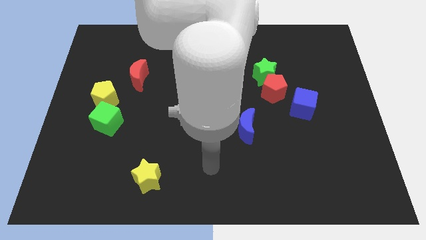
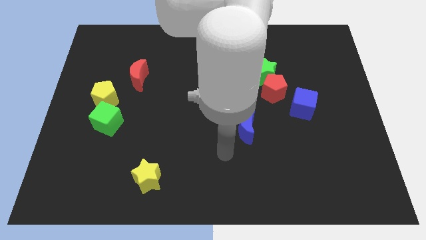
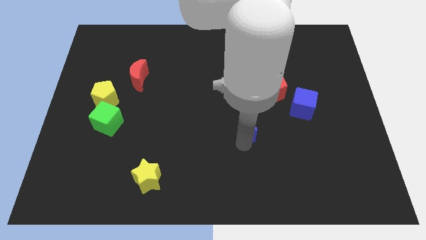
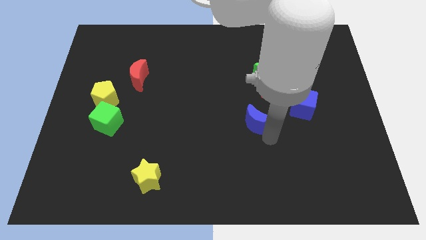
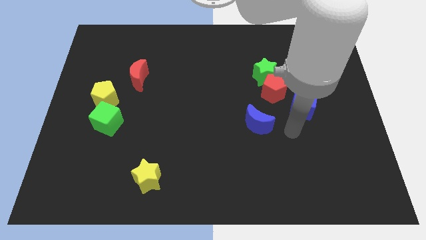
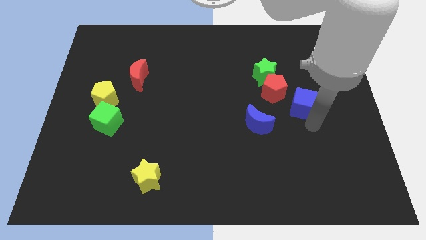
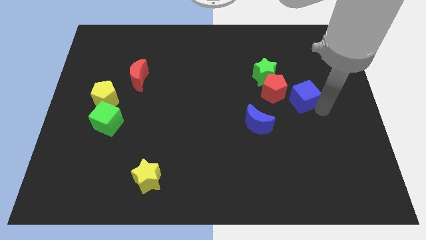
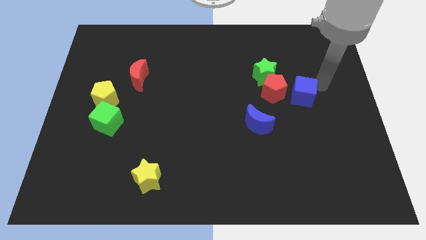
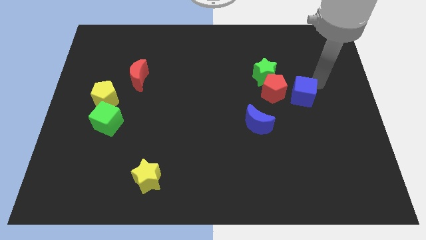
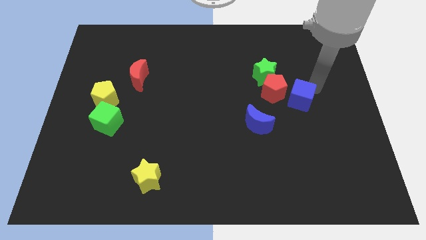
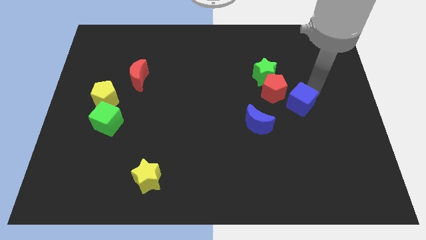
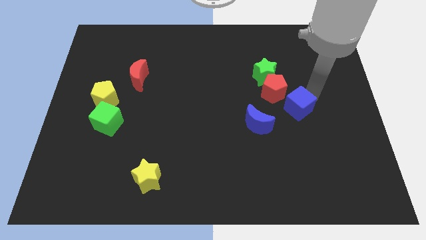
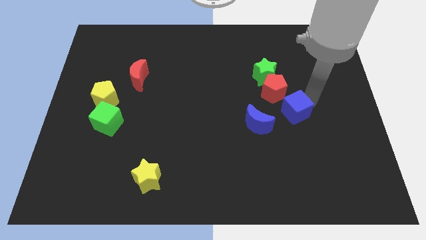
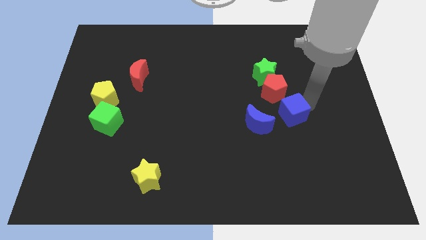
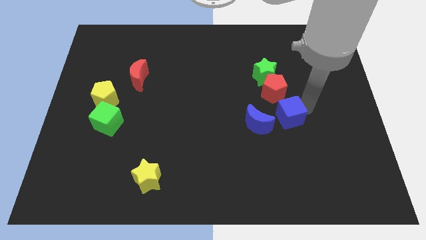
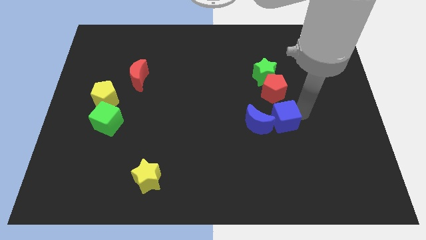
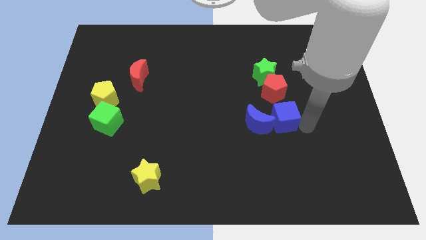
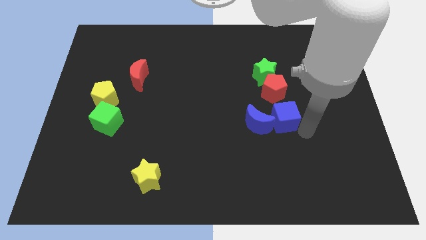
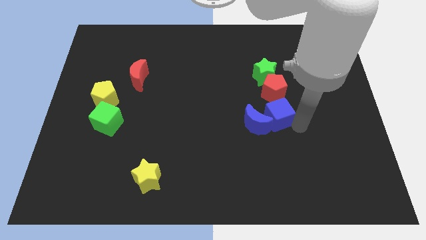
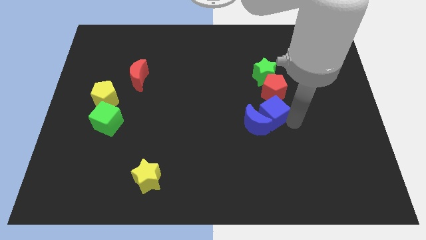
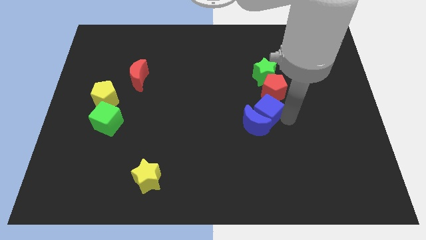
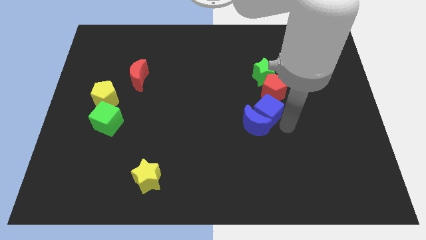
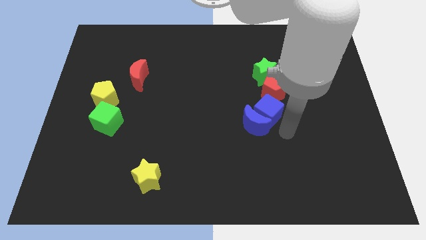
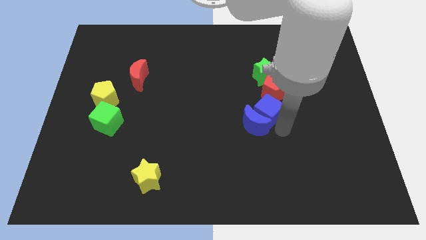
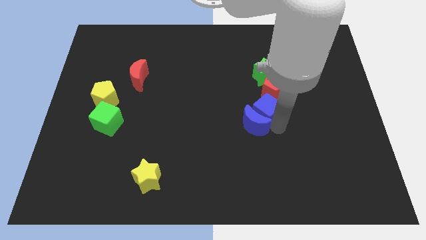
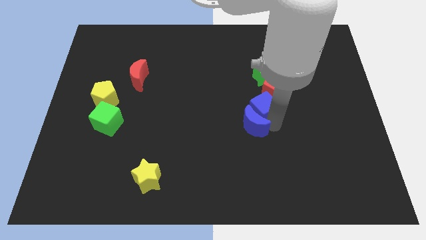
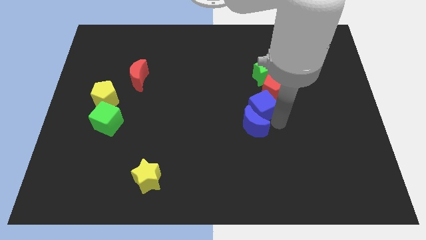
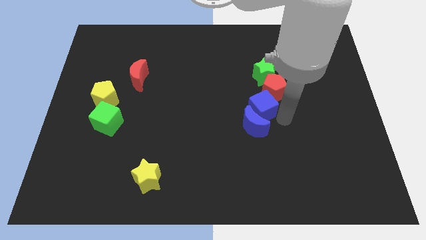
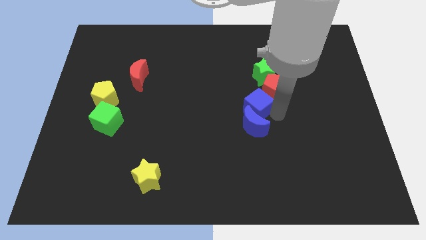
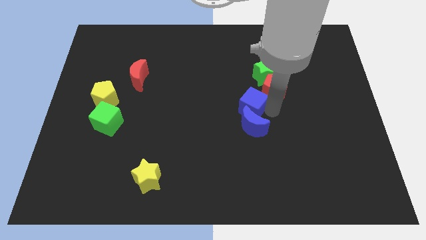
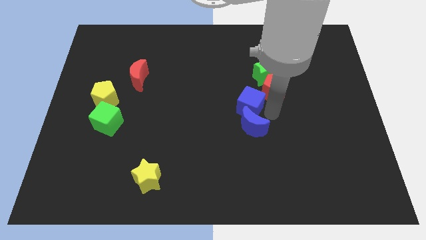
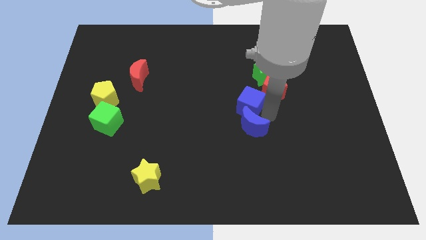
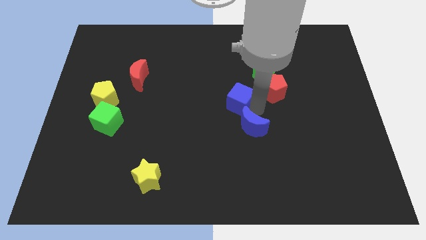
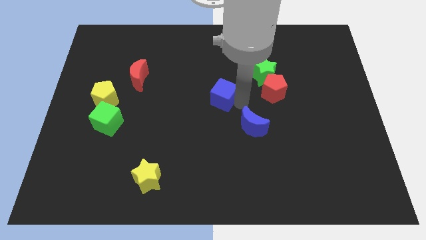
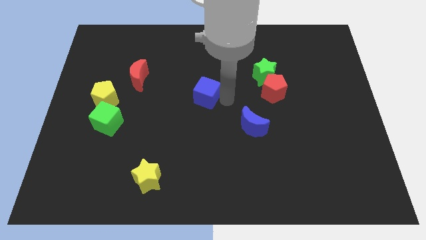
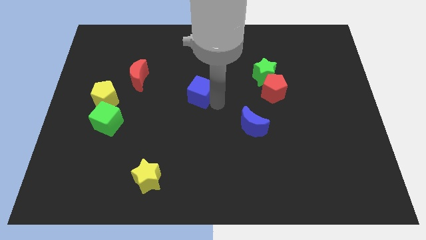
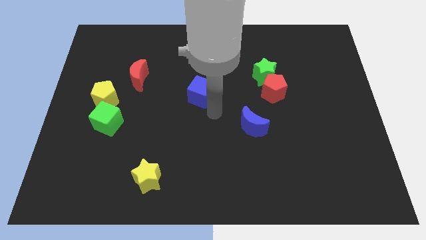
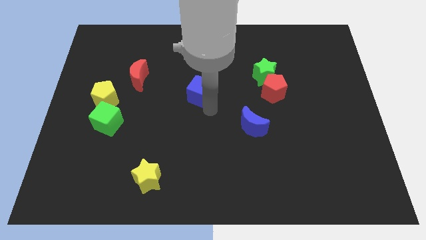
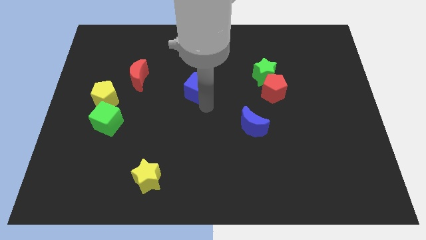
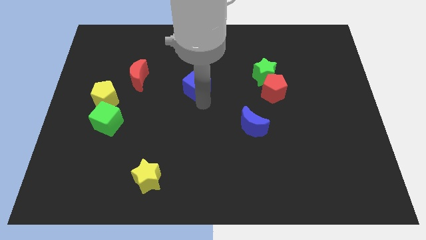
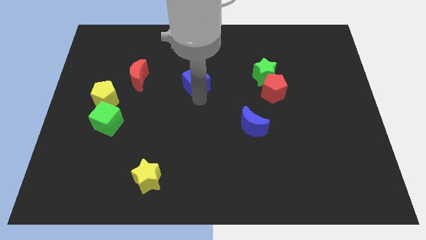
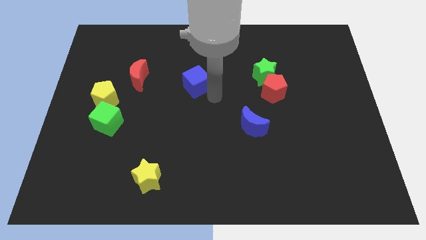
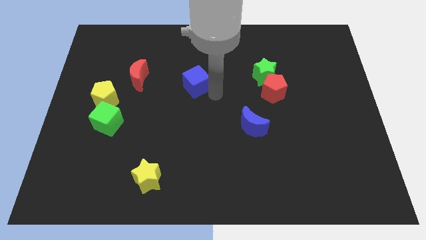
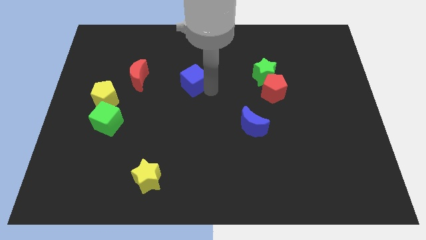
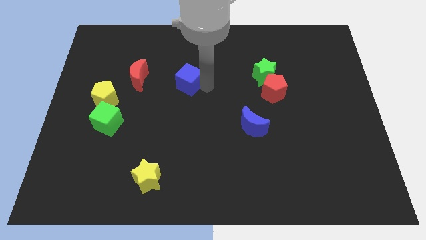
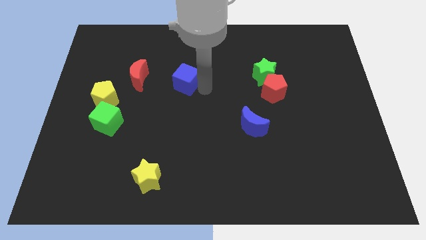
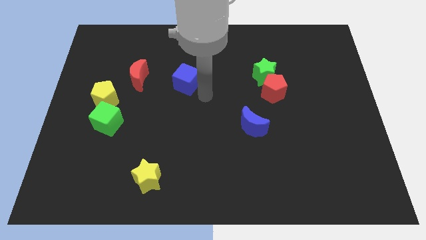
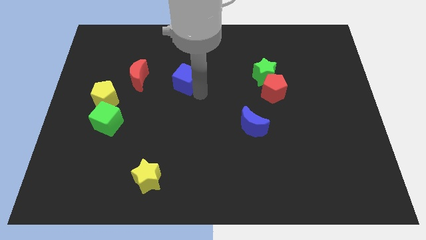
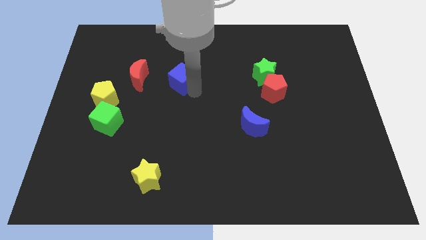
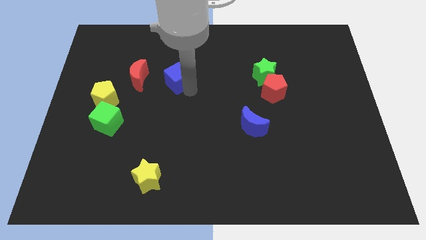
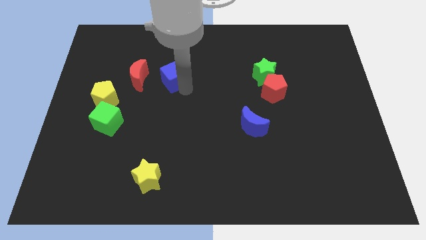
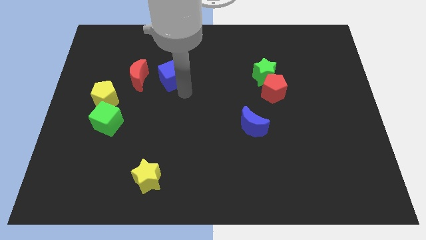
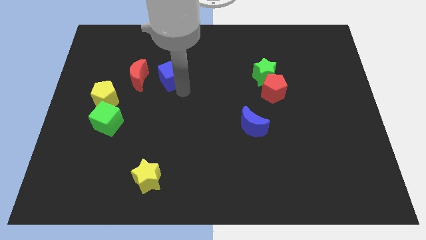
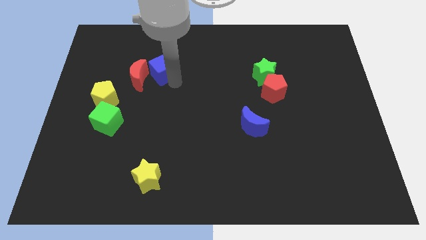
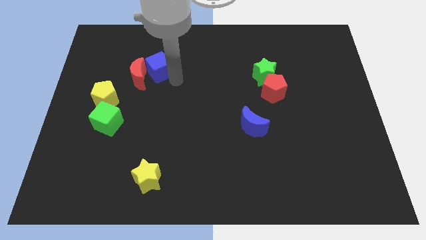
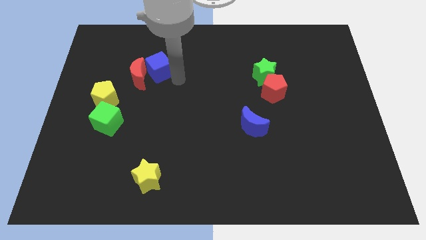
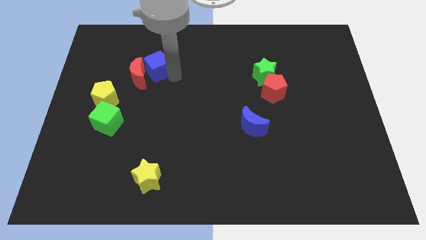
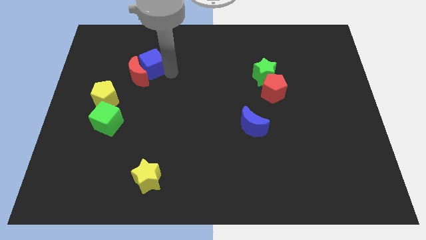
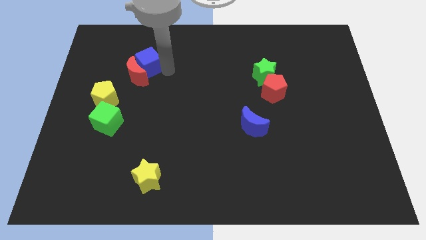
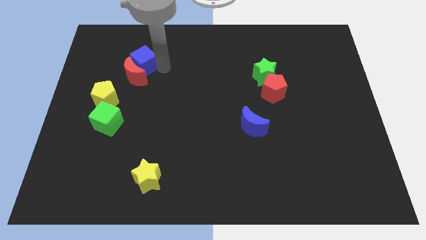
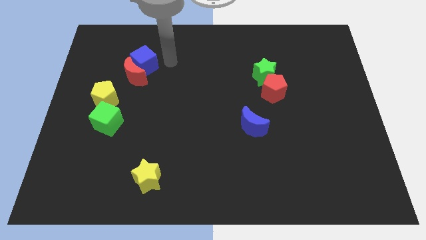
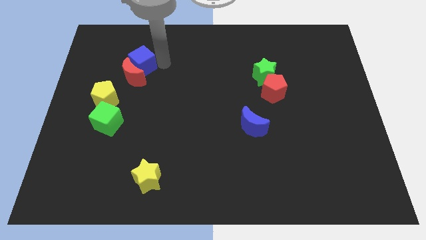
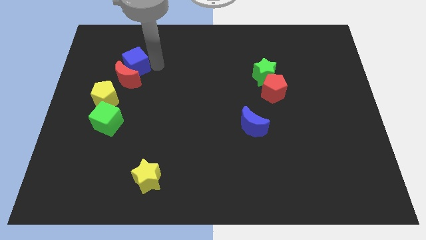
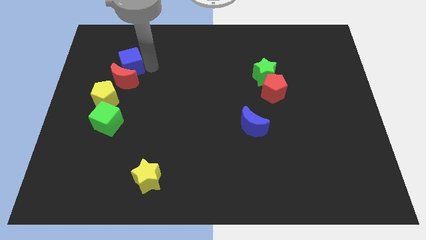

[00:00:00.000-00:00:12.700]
slide the blue cube to the top side of the yellow pentagon

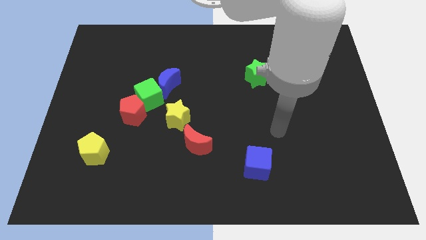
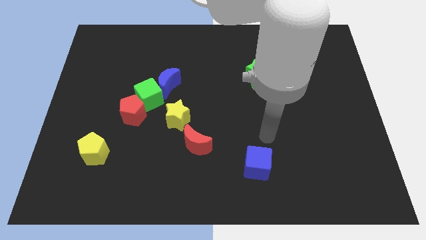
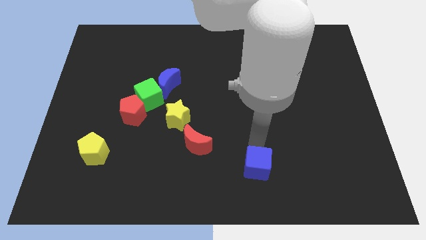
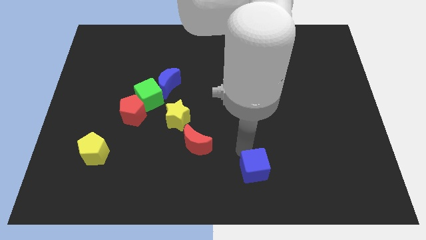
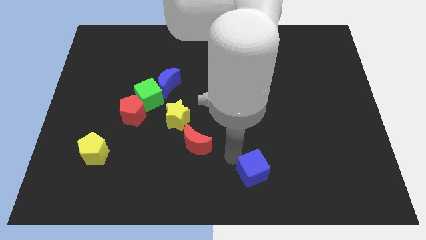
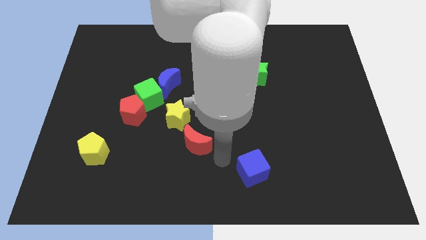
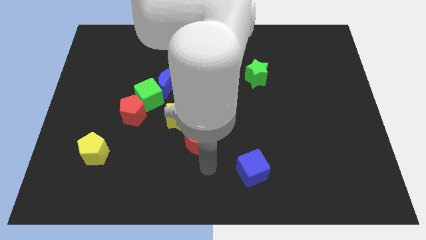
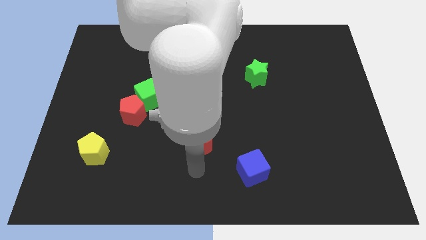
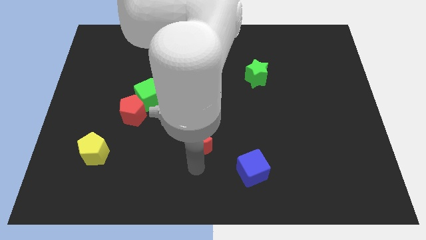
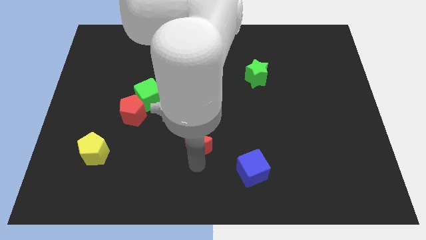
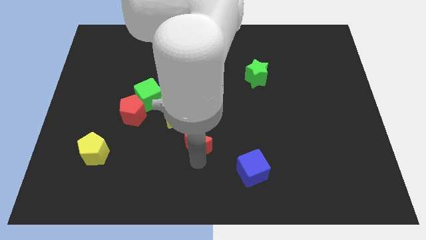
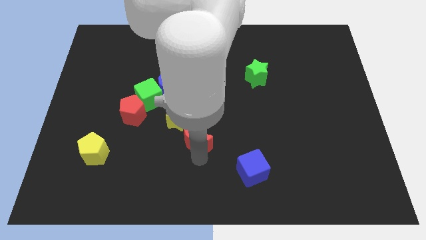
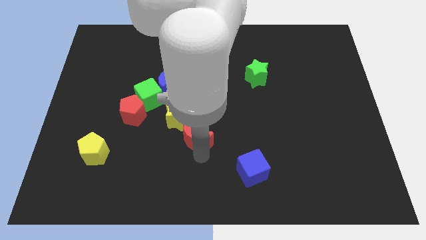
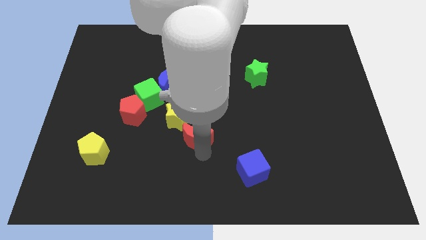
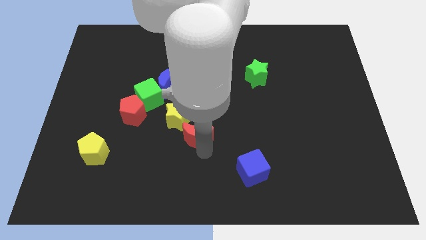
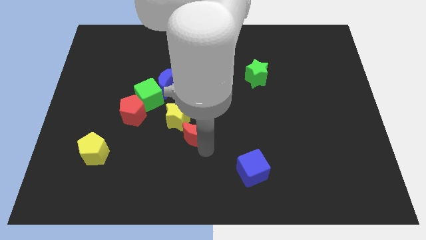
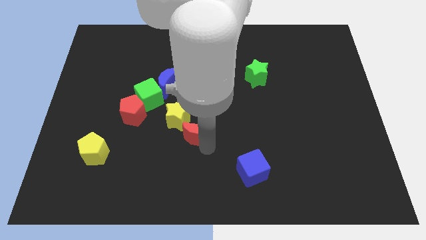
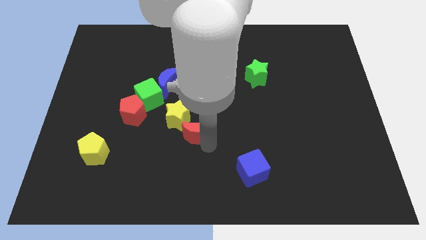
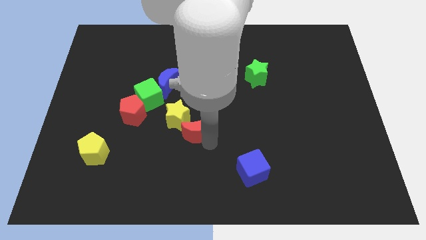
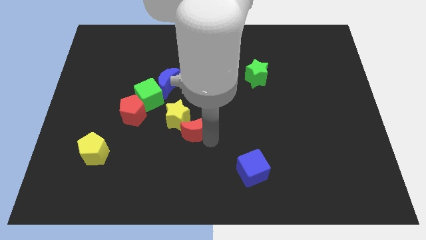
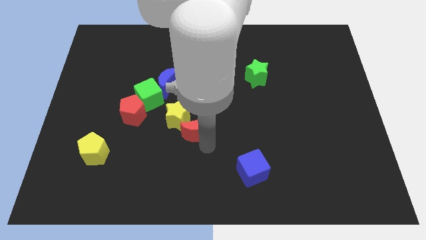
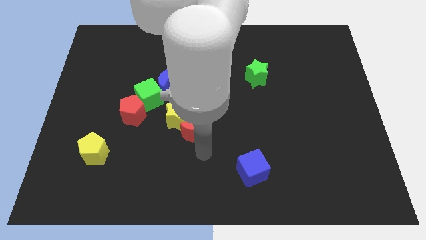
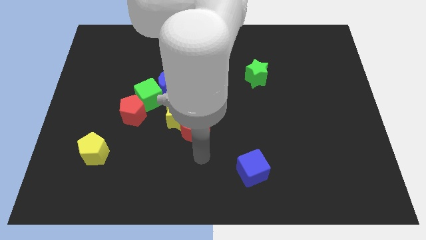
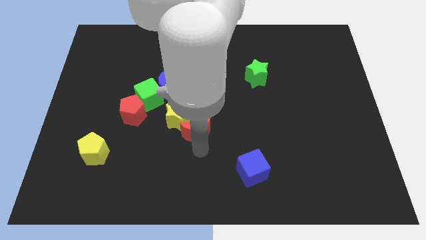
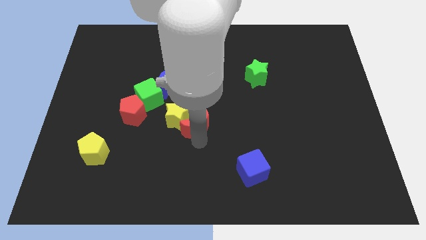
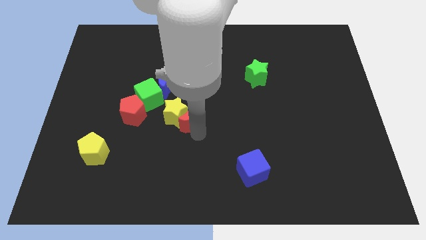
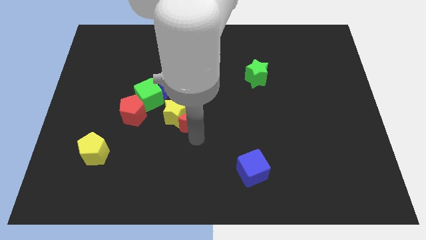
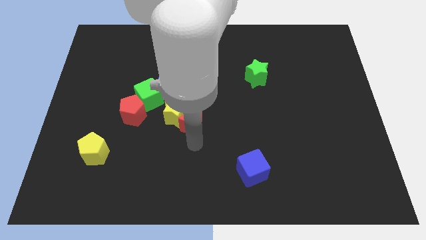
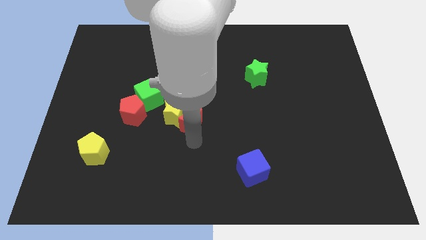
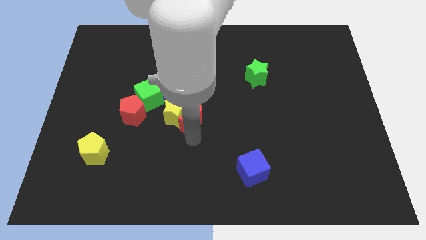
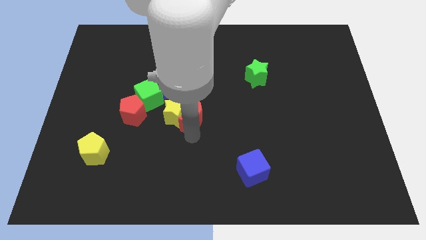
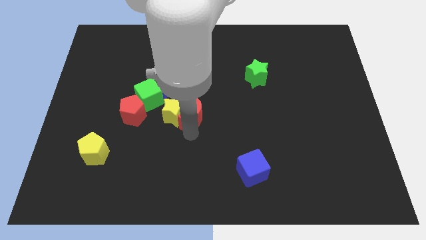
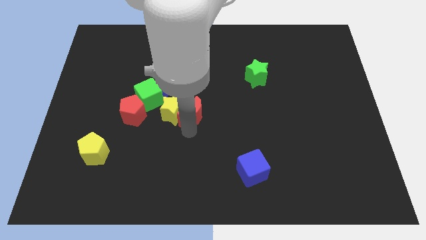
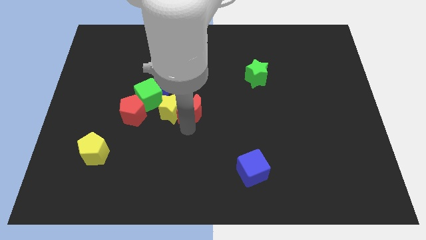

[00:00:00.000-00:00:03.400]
put the red moon right of the green cube
